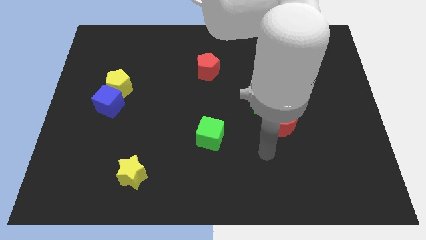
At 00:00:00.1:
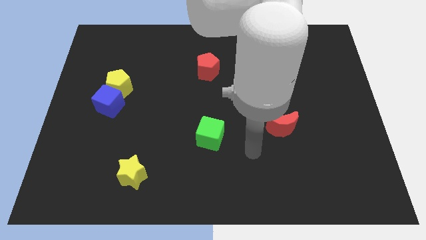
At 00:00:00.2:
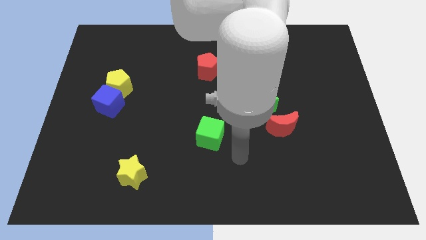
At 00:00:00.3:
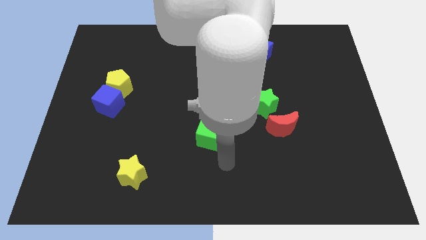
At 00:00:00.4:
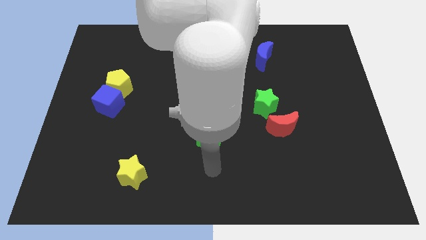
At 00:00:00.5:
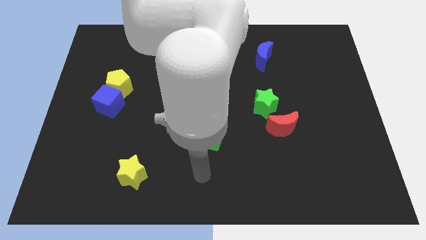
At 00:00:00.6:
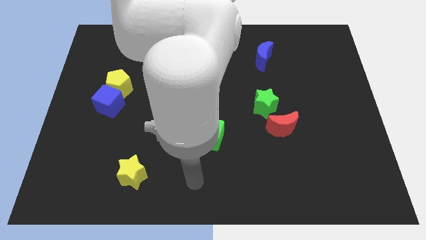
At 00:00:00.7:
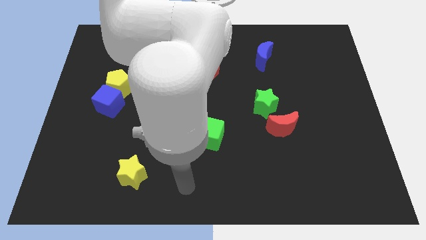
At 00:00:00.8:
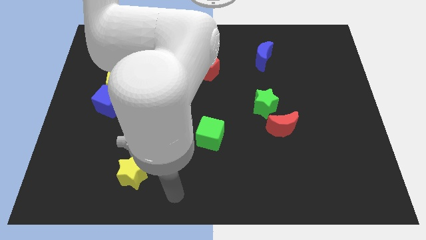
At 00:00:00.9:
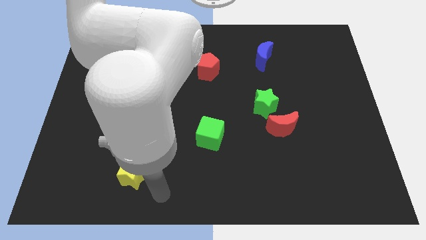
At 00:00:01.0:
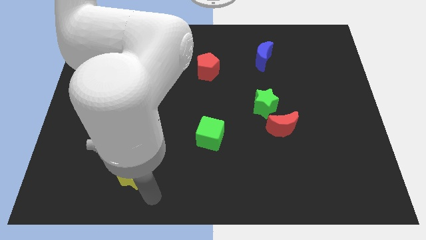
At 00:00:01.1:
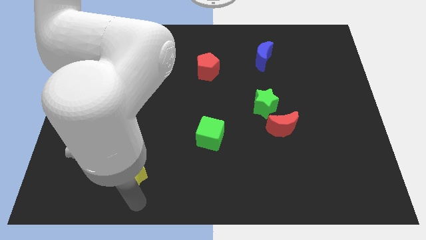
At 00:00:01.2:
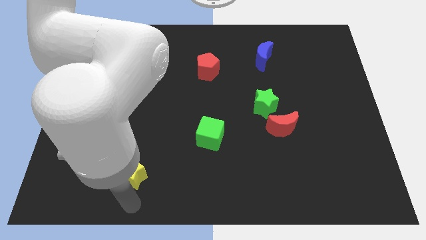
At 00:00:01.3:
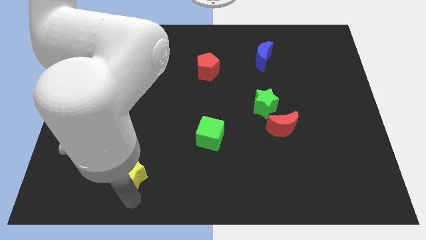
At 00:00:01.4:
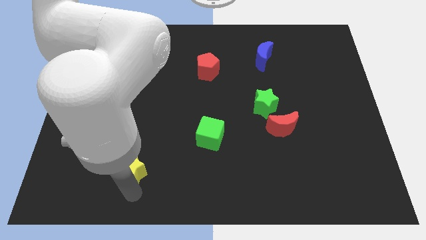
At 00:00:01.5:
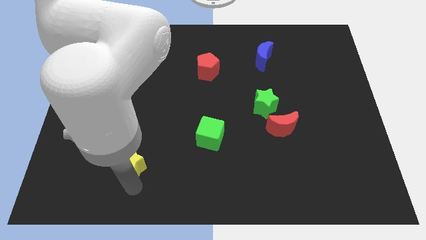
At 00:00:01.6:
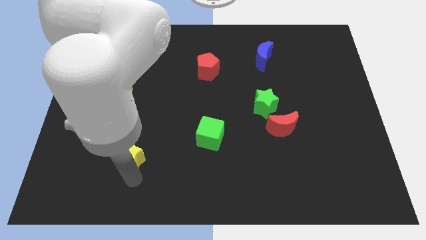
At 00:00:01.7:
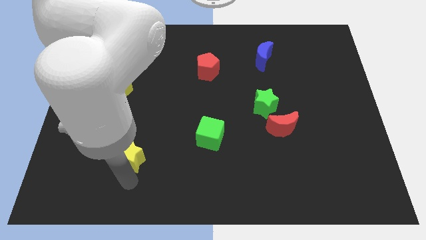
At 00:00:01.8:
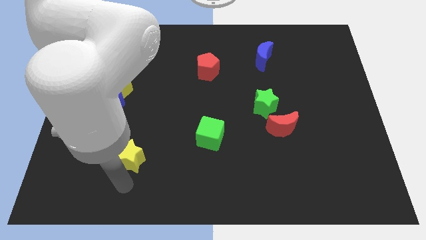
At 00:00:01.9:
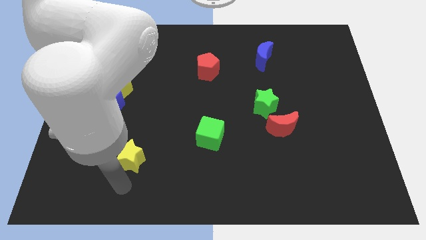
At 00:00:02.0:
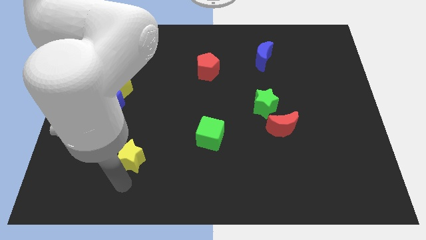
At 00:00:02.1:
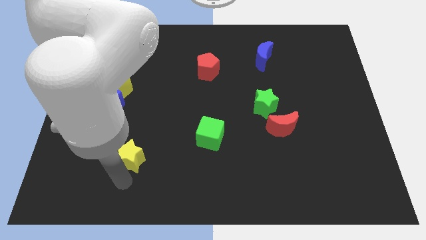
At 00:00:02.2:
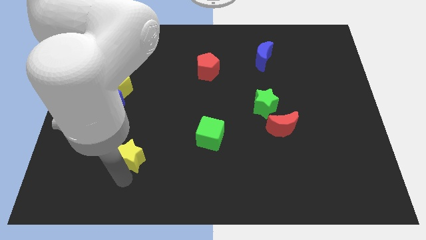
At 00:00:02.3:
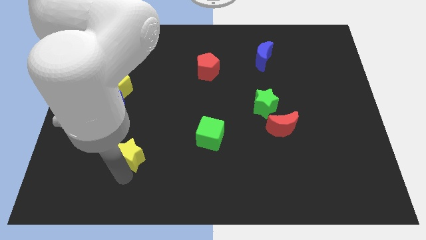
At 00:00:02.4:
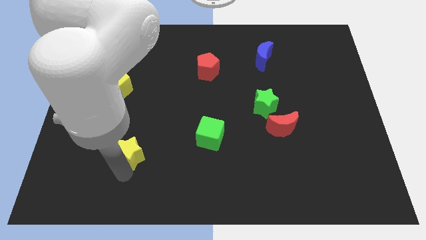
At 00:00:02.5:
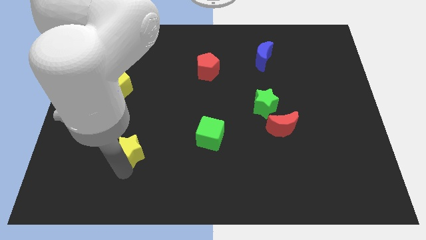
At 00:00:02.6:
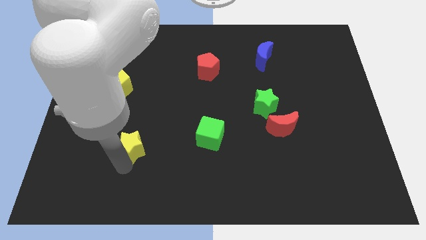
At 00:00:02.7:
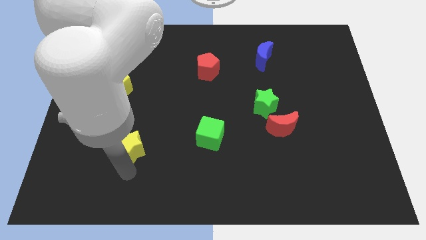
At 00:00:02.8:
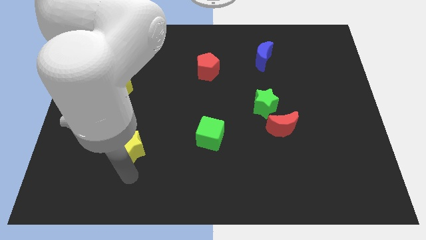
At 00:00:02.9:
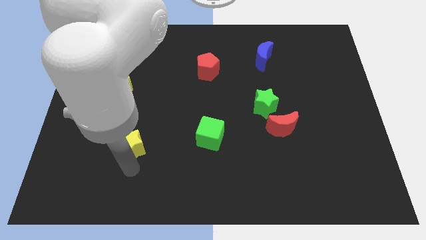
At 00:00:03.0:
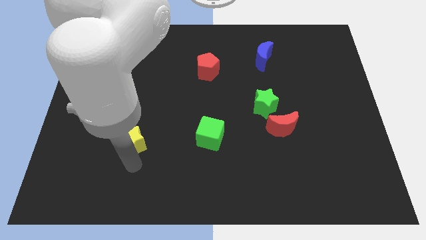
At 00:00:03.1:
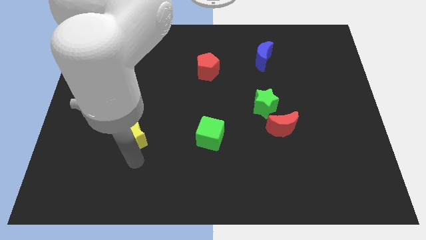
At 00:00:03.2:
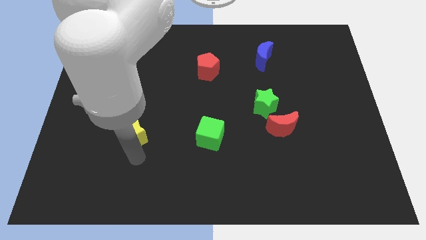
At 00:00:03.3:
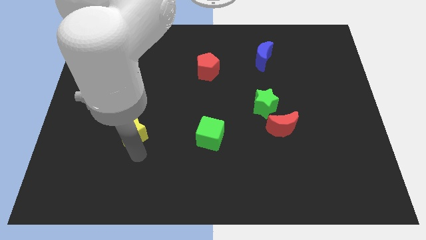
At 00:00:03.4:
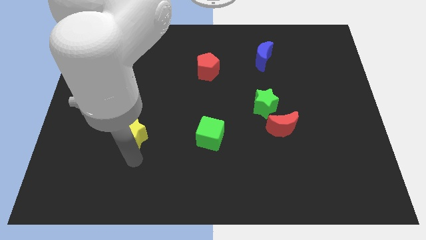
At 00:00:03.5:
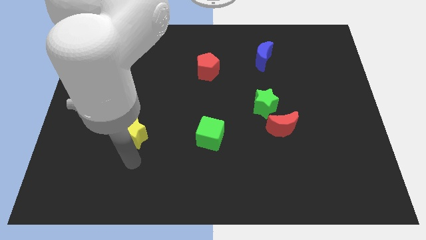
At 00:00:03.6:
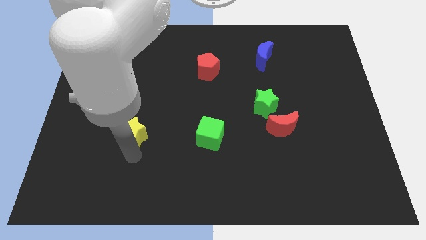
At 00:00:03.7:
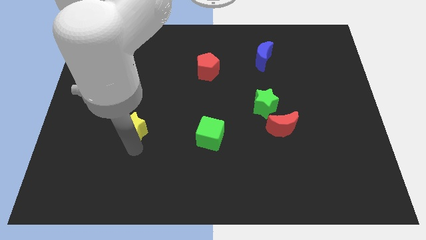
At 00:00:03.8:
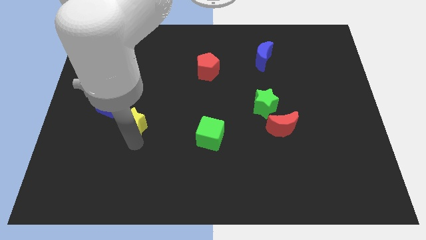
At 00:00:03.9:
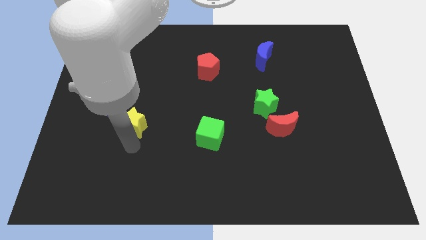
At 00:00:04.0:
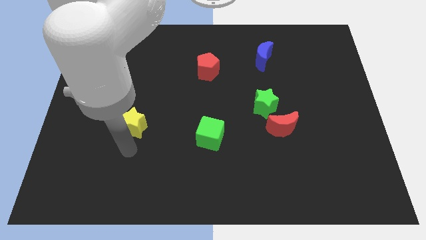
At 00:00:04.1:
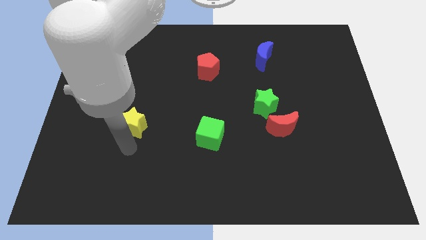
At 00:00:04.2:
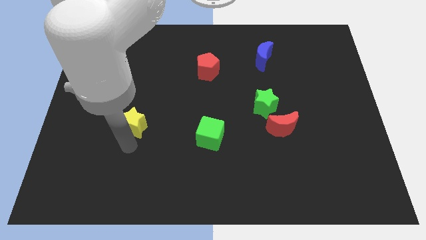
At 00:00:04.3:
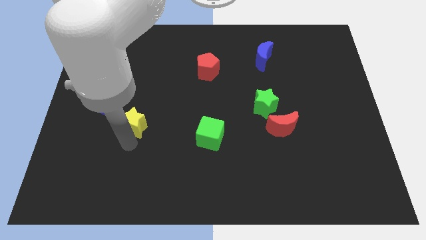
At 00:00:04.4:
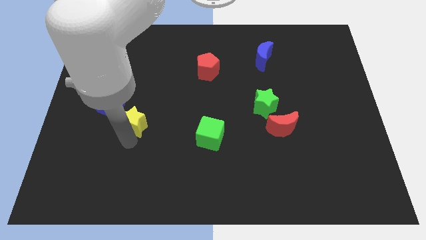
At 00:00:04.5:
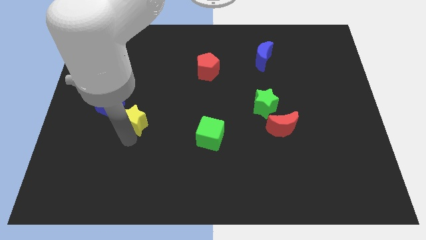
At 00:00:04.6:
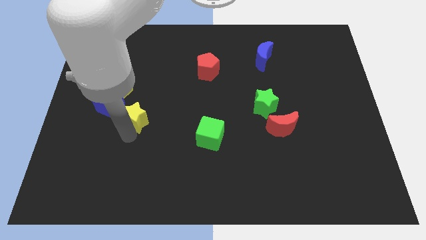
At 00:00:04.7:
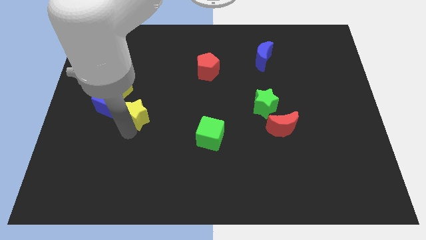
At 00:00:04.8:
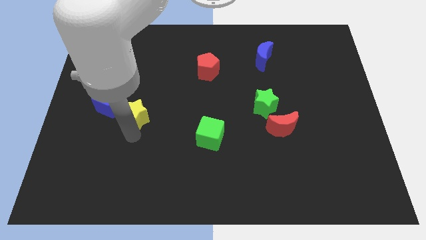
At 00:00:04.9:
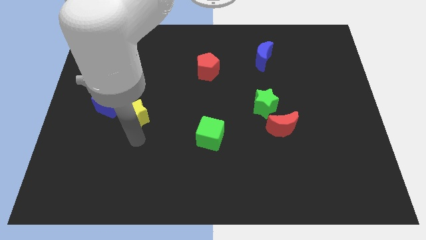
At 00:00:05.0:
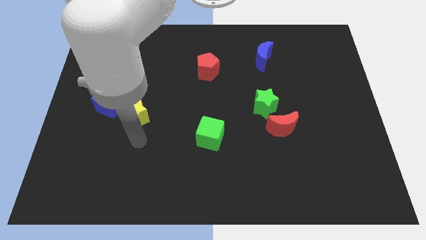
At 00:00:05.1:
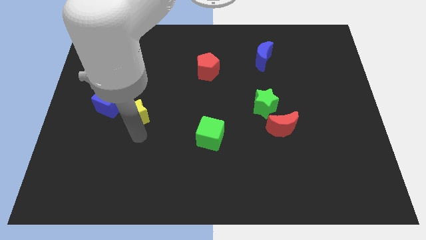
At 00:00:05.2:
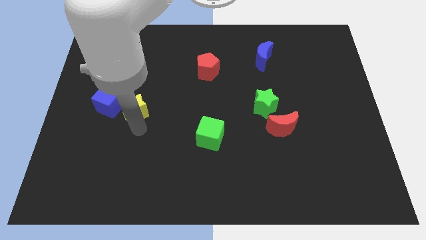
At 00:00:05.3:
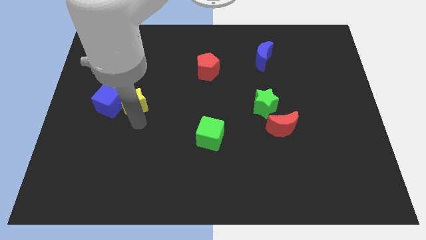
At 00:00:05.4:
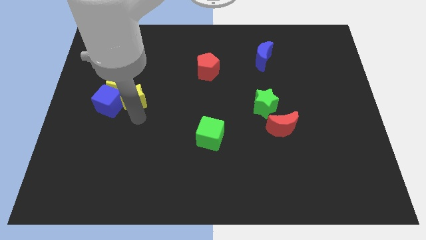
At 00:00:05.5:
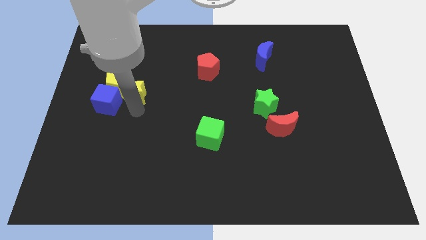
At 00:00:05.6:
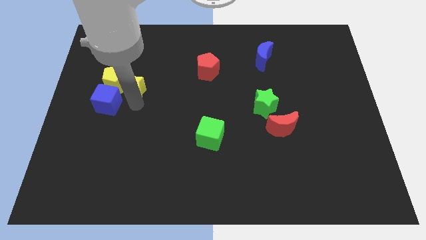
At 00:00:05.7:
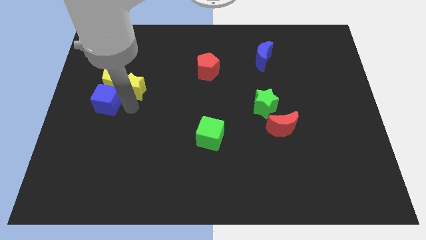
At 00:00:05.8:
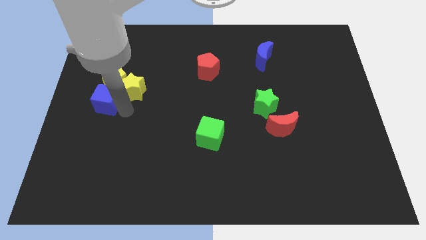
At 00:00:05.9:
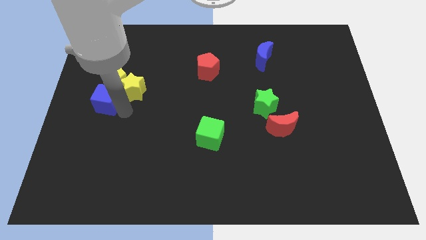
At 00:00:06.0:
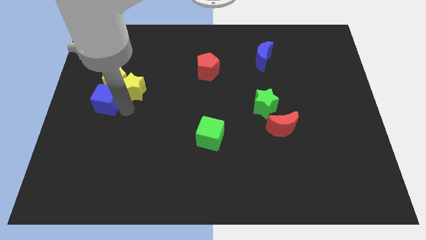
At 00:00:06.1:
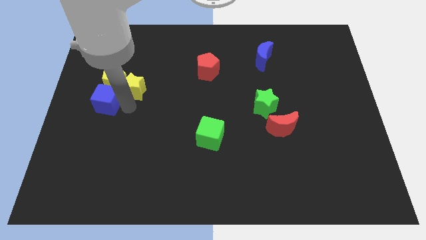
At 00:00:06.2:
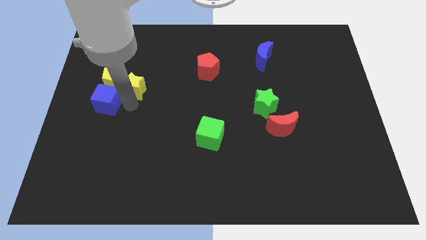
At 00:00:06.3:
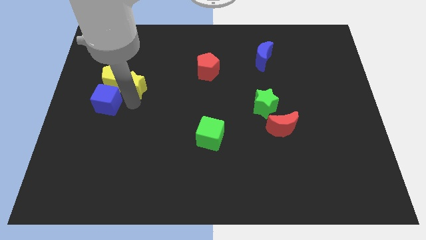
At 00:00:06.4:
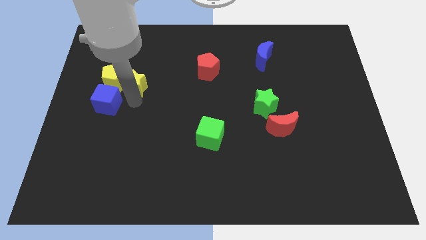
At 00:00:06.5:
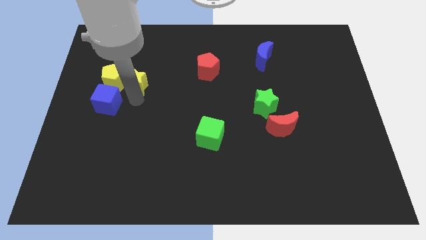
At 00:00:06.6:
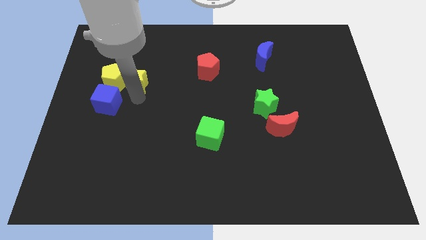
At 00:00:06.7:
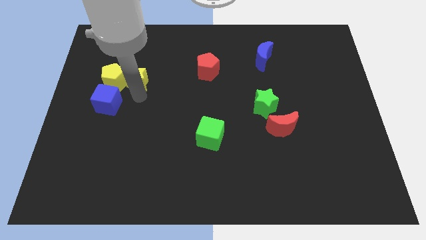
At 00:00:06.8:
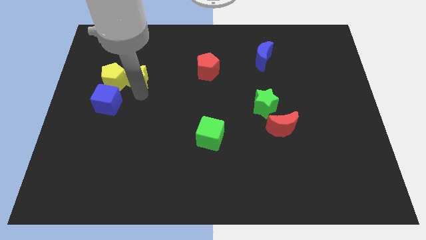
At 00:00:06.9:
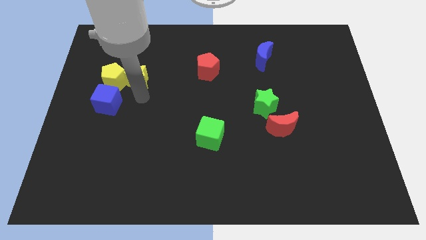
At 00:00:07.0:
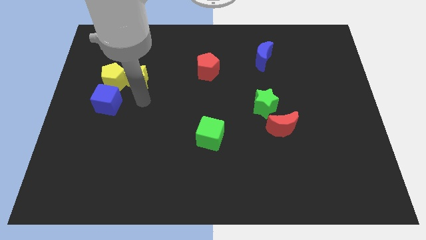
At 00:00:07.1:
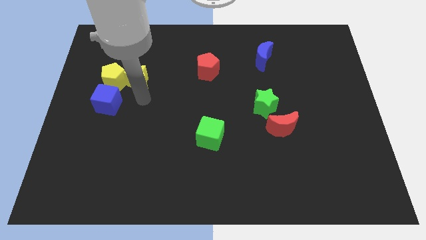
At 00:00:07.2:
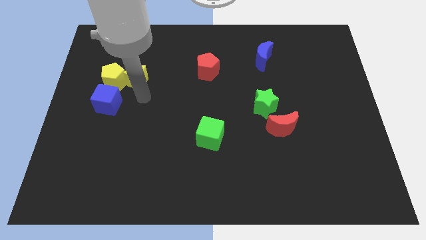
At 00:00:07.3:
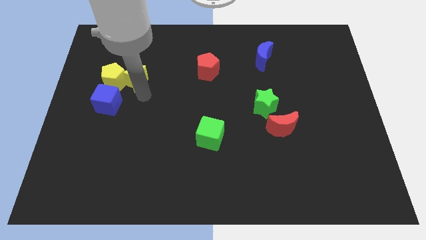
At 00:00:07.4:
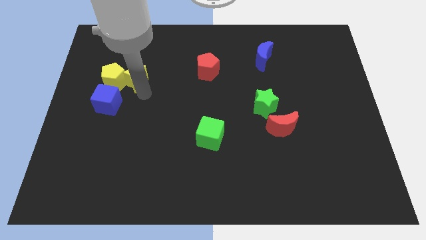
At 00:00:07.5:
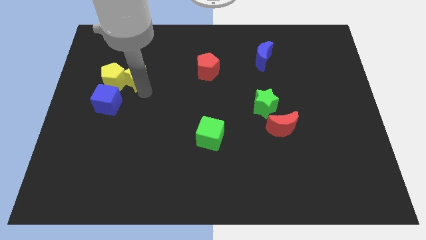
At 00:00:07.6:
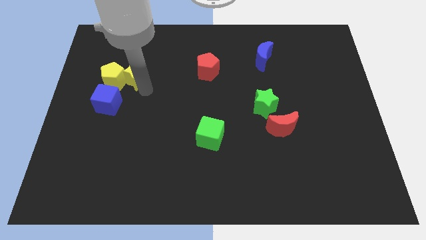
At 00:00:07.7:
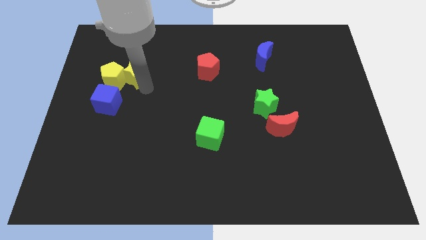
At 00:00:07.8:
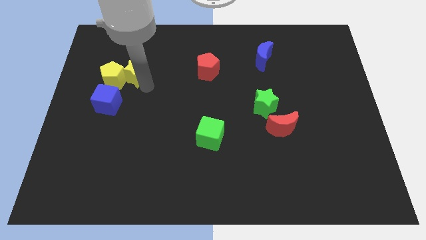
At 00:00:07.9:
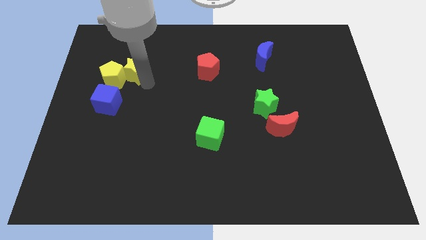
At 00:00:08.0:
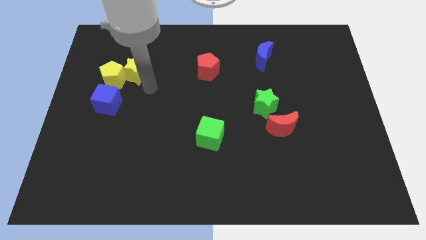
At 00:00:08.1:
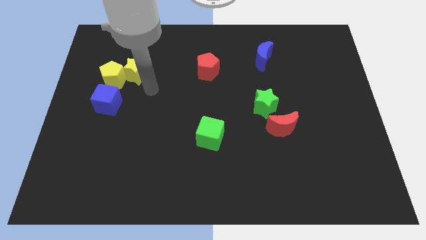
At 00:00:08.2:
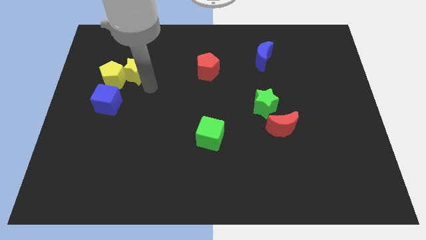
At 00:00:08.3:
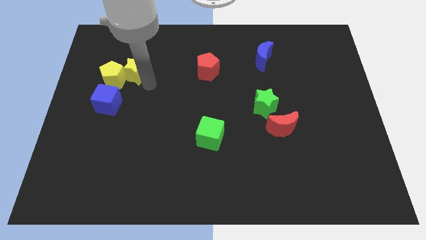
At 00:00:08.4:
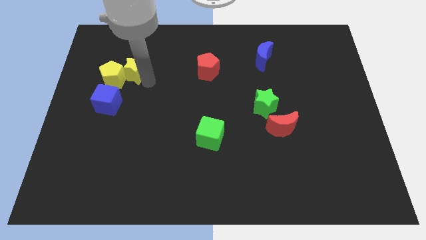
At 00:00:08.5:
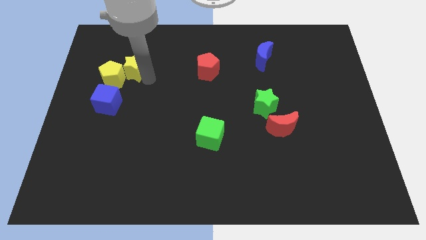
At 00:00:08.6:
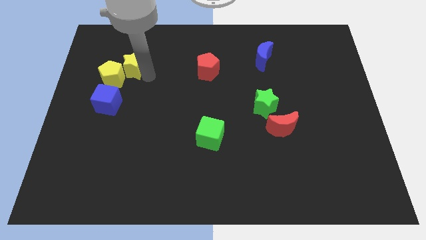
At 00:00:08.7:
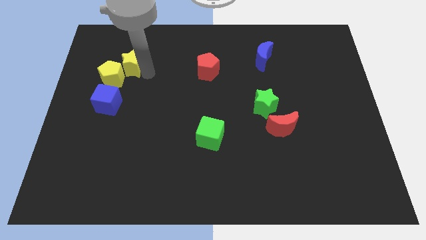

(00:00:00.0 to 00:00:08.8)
push the yellow star to the top of the yellow pentagon
